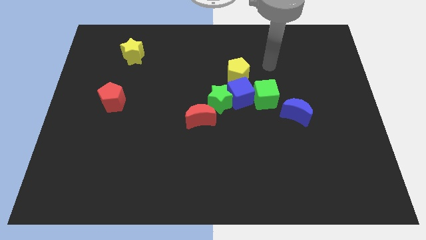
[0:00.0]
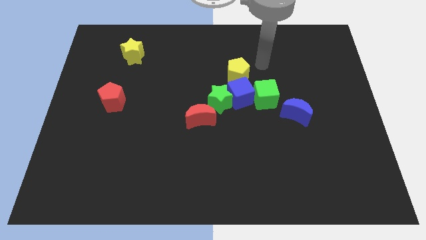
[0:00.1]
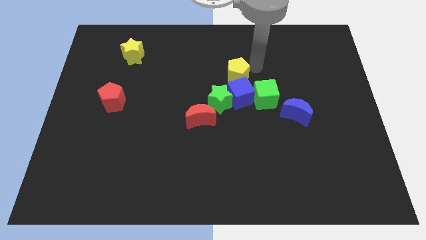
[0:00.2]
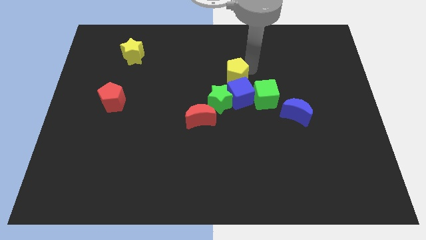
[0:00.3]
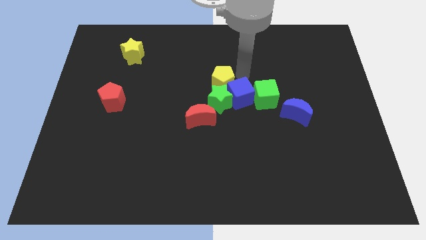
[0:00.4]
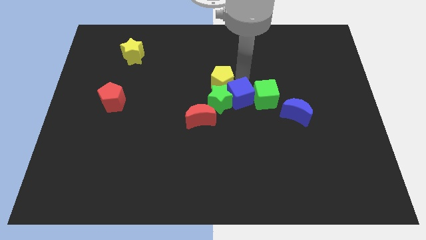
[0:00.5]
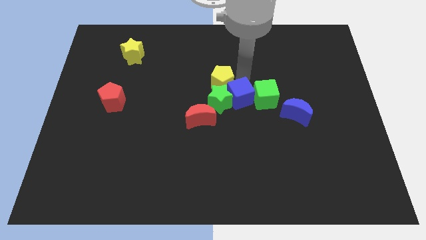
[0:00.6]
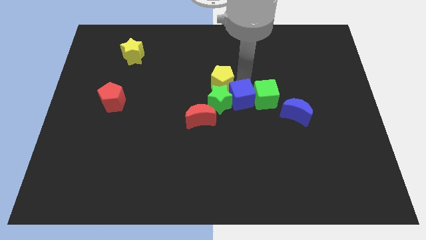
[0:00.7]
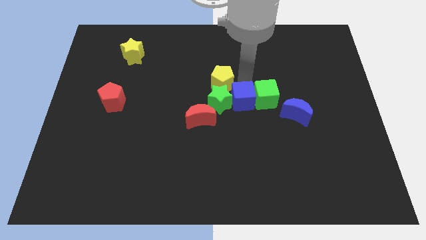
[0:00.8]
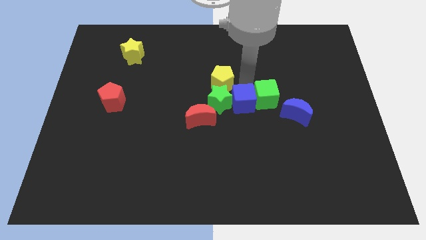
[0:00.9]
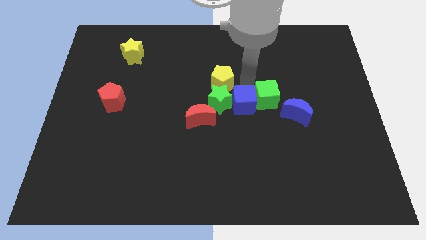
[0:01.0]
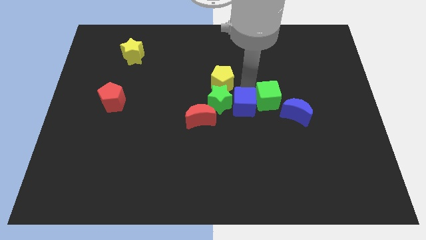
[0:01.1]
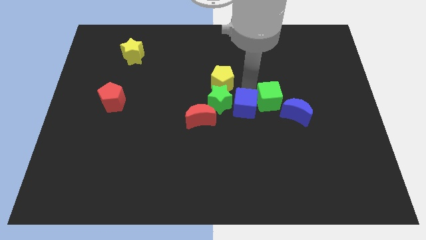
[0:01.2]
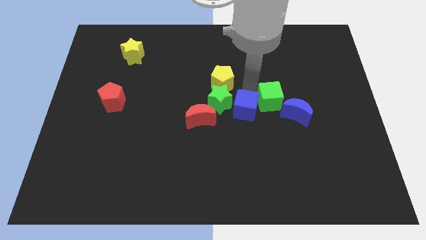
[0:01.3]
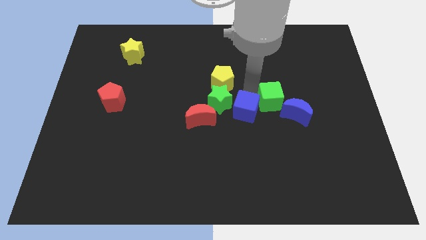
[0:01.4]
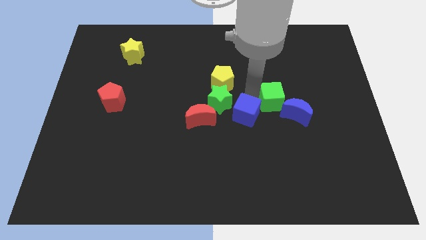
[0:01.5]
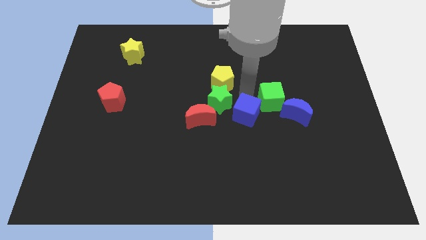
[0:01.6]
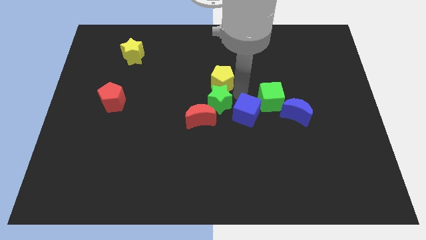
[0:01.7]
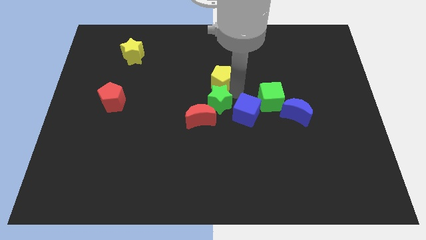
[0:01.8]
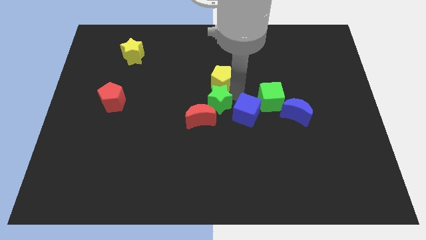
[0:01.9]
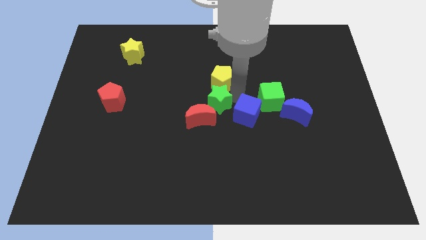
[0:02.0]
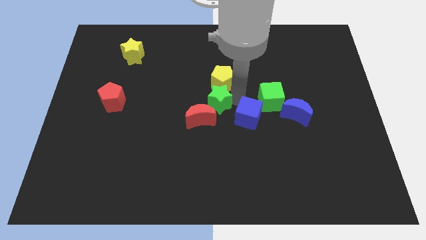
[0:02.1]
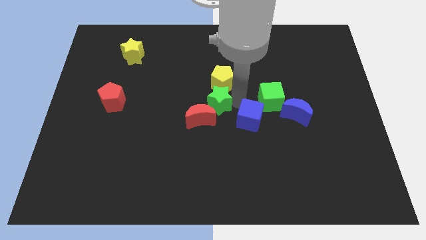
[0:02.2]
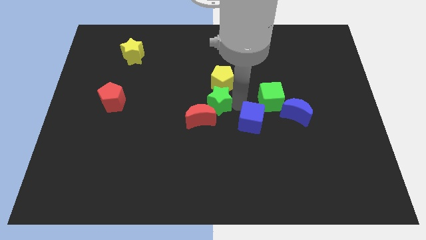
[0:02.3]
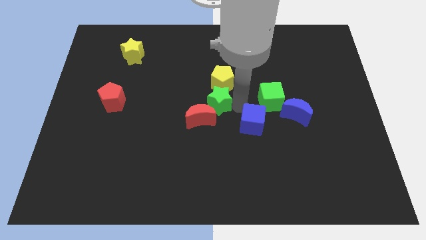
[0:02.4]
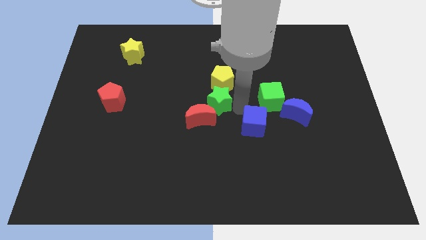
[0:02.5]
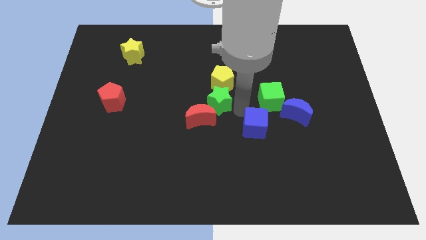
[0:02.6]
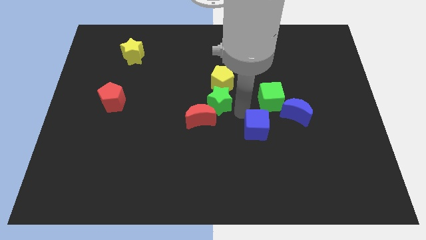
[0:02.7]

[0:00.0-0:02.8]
pull the blue cube apart from the group of blocks

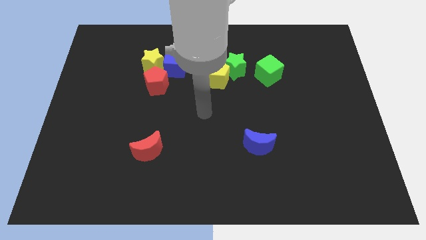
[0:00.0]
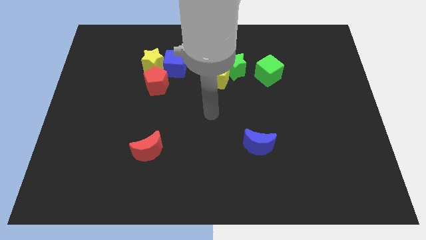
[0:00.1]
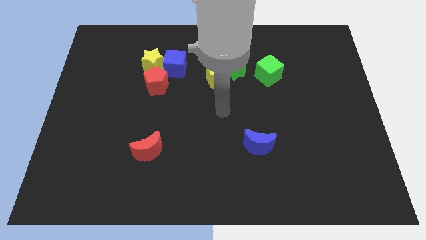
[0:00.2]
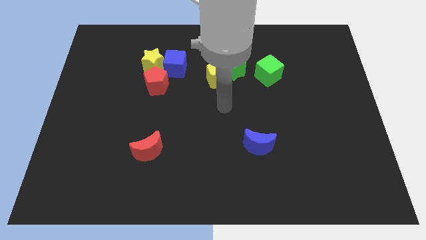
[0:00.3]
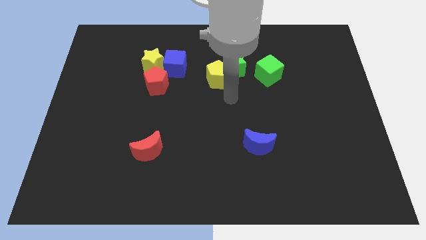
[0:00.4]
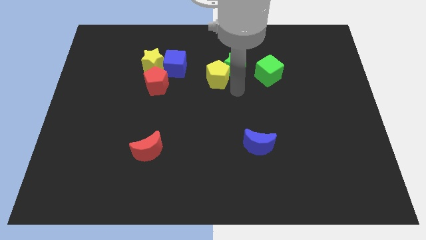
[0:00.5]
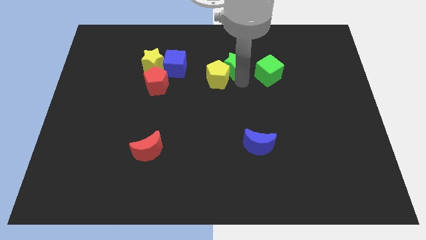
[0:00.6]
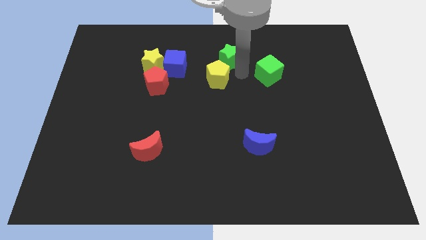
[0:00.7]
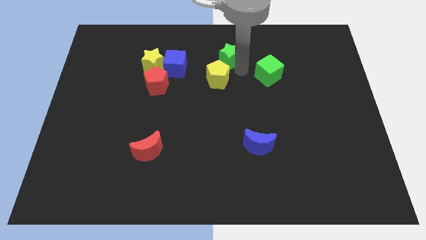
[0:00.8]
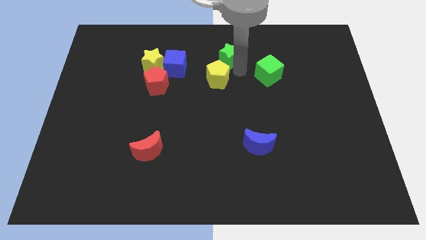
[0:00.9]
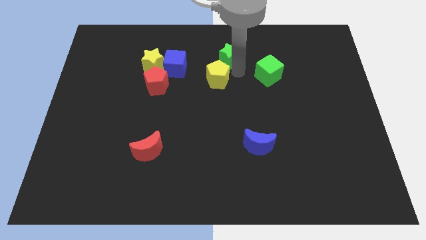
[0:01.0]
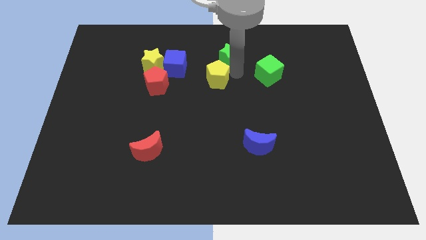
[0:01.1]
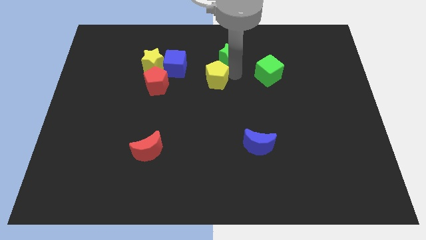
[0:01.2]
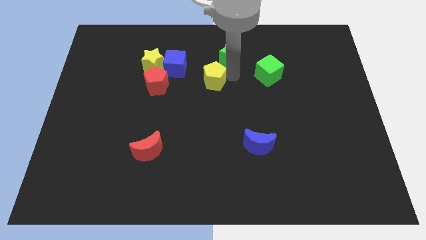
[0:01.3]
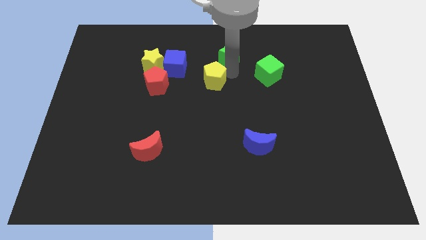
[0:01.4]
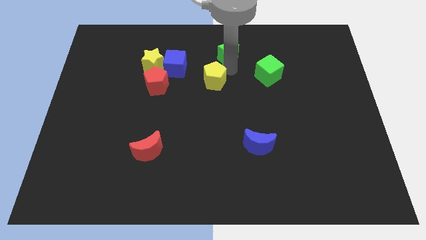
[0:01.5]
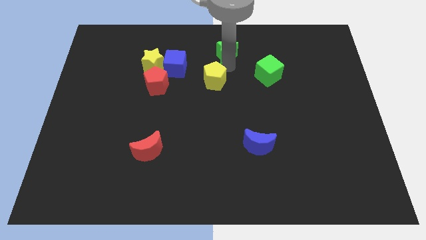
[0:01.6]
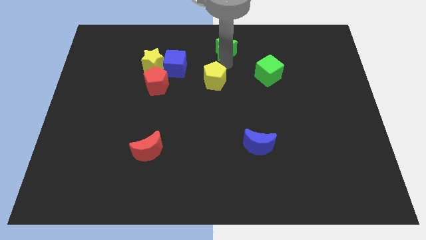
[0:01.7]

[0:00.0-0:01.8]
separate the yellow pentagon from the green star

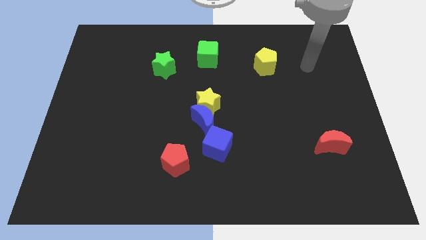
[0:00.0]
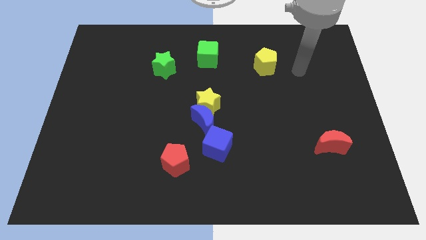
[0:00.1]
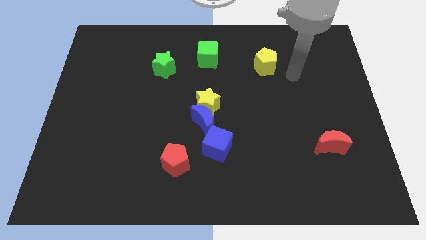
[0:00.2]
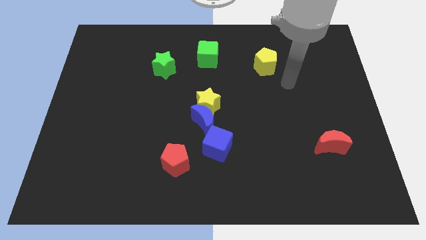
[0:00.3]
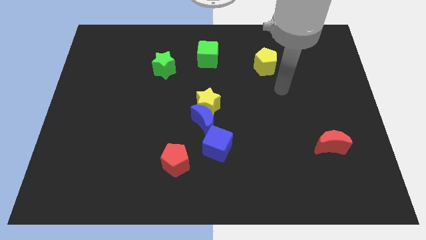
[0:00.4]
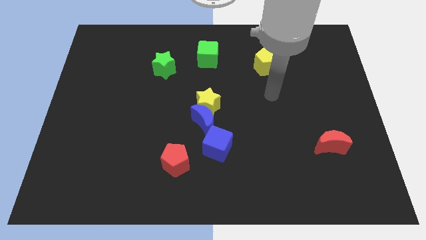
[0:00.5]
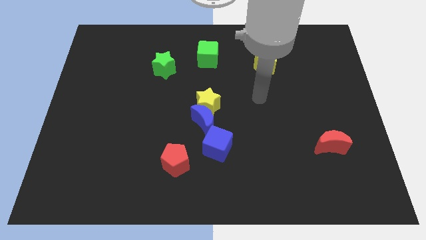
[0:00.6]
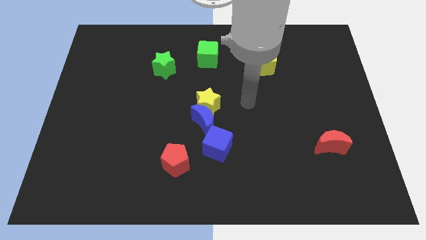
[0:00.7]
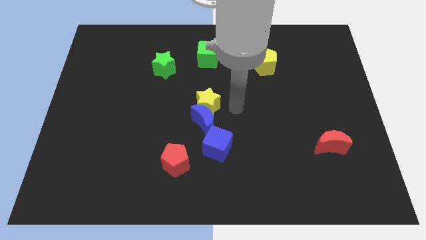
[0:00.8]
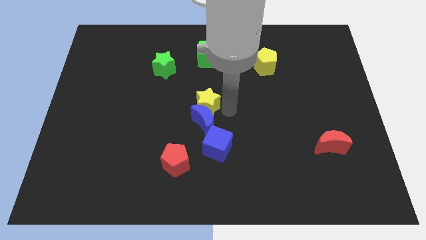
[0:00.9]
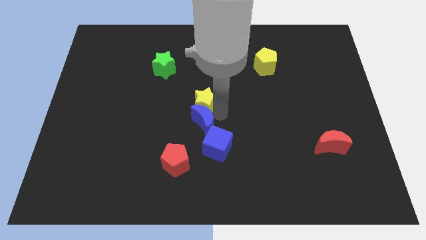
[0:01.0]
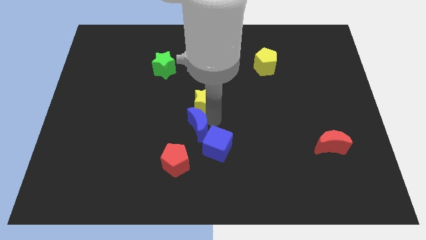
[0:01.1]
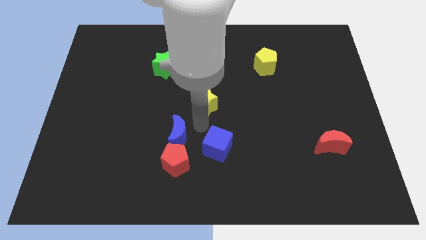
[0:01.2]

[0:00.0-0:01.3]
pull the yellow star apart from the blue moon

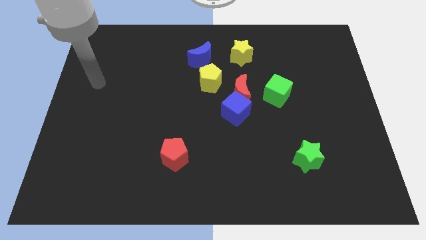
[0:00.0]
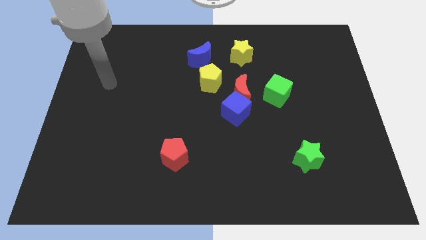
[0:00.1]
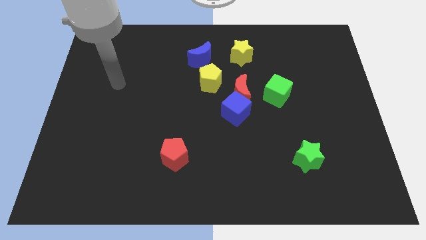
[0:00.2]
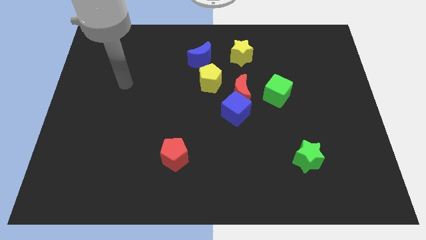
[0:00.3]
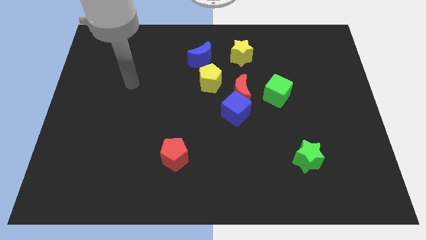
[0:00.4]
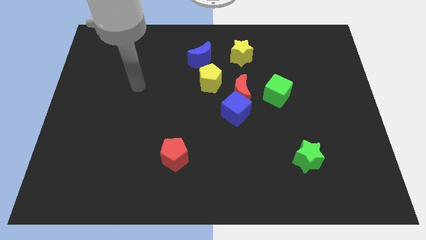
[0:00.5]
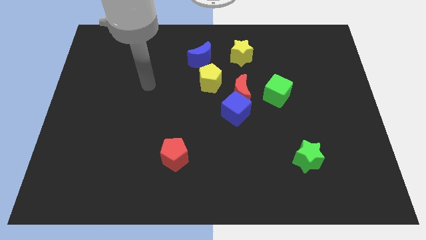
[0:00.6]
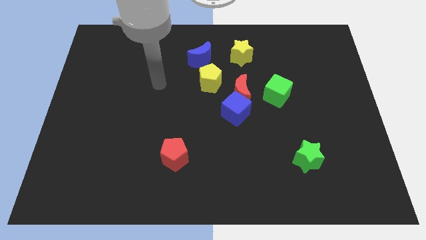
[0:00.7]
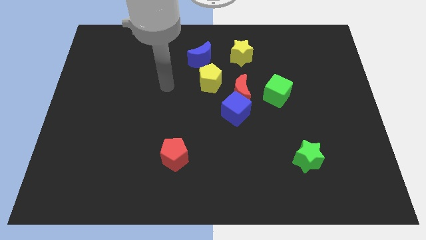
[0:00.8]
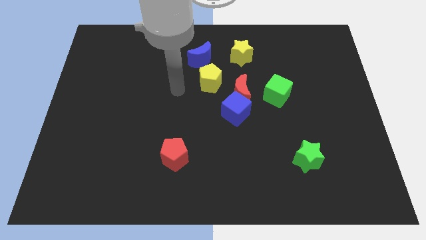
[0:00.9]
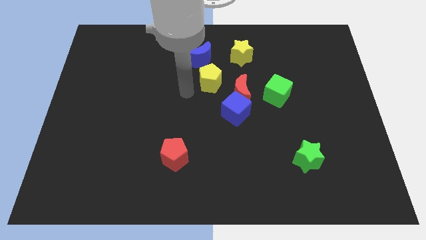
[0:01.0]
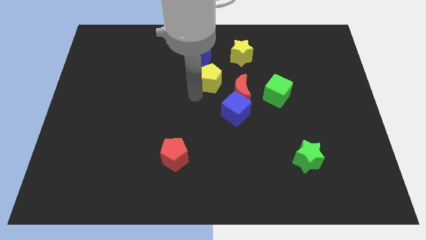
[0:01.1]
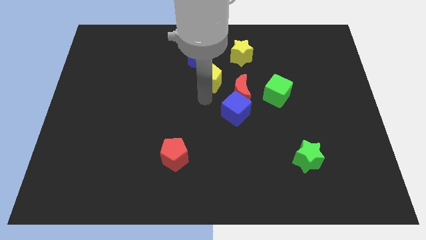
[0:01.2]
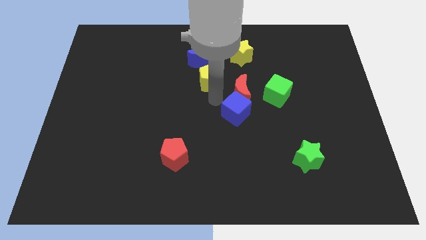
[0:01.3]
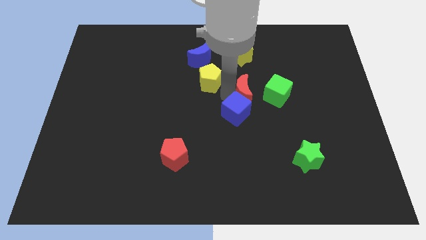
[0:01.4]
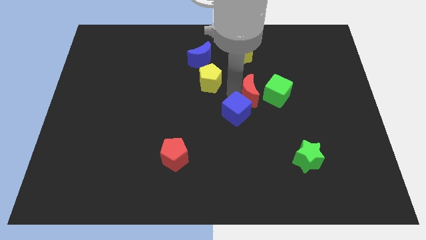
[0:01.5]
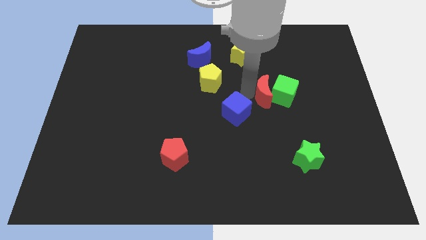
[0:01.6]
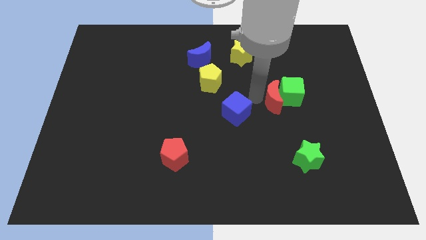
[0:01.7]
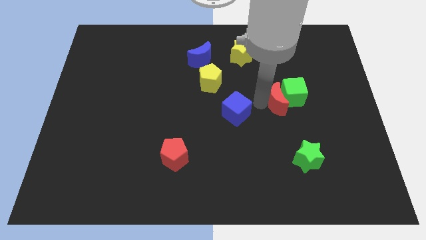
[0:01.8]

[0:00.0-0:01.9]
move the blue cube away from the red moon

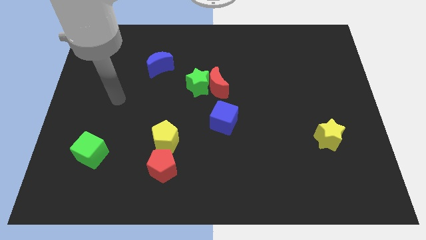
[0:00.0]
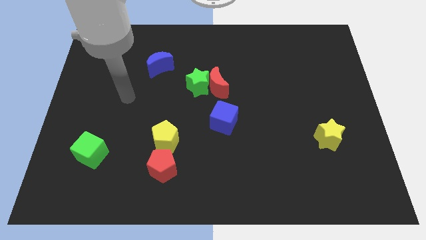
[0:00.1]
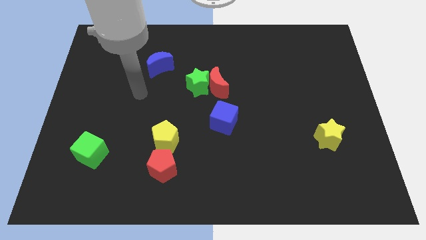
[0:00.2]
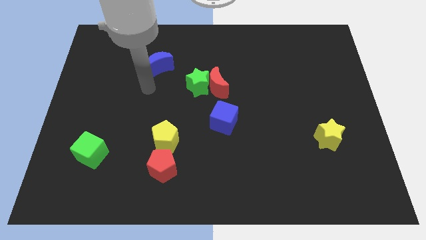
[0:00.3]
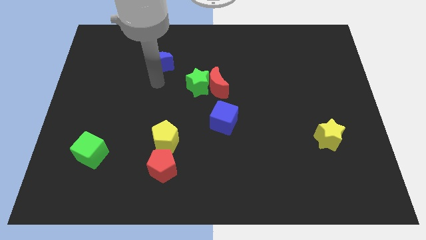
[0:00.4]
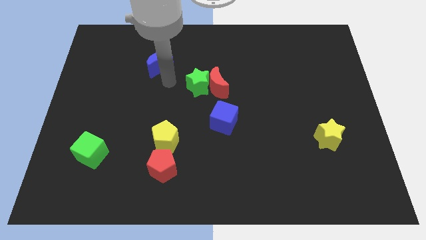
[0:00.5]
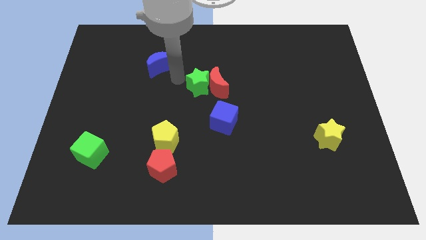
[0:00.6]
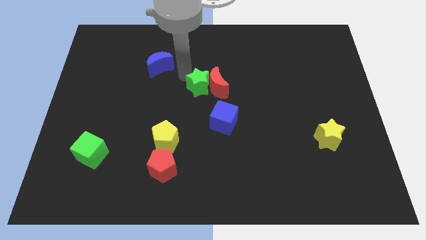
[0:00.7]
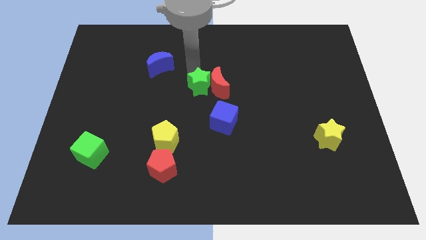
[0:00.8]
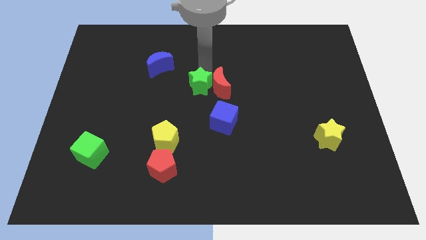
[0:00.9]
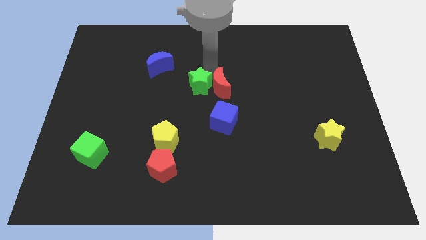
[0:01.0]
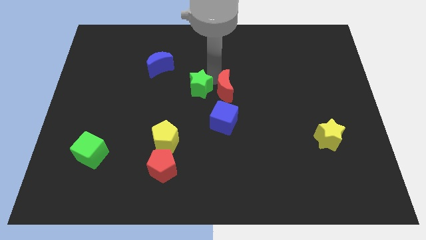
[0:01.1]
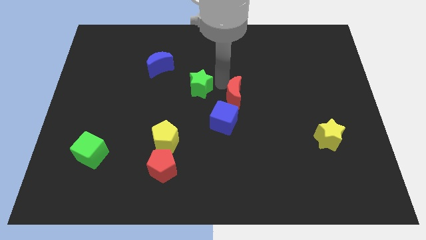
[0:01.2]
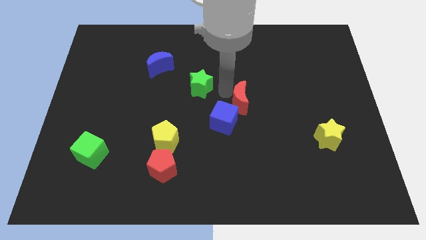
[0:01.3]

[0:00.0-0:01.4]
pull the green star apart from the red moon
